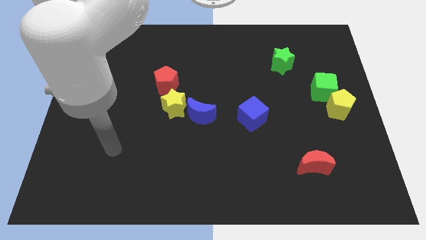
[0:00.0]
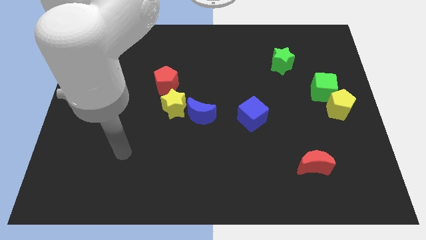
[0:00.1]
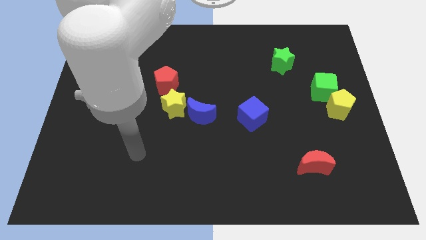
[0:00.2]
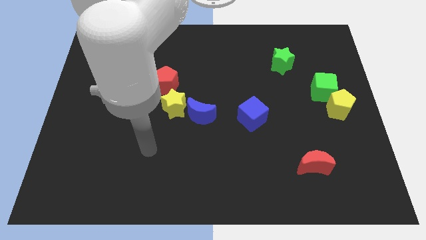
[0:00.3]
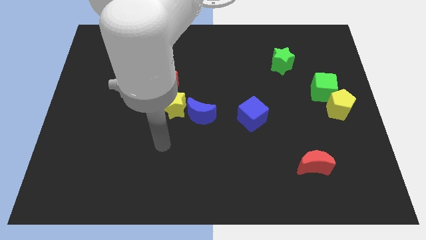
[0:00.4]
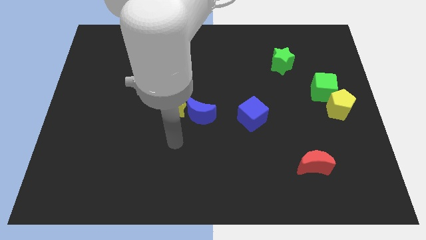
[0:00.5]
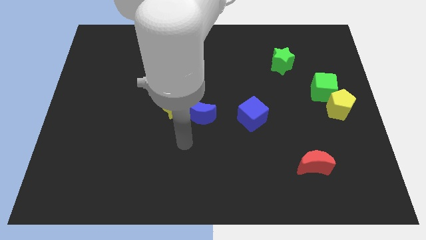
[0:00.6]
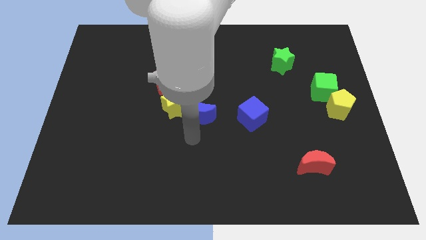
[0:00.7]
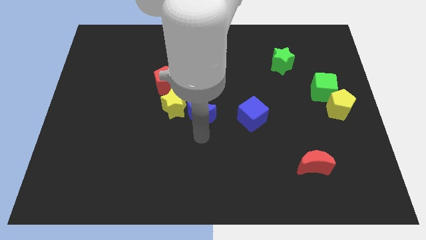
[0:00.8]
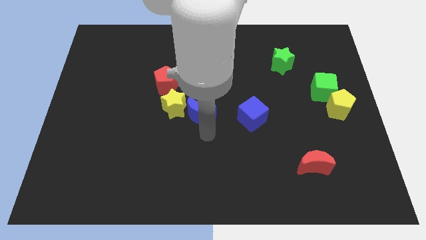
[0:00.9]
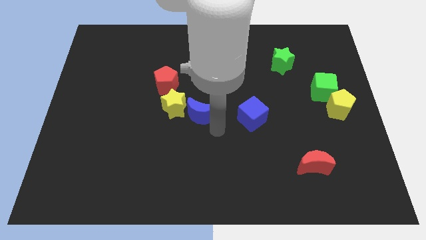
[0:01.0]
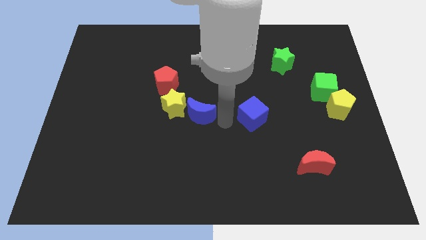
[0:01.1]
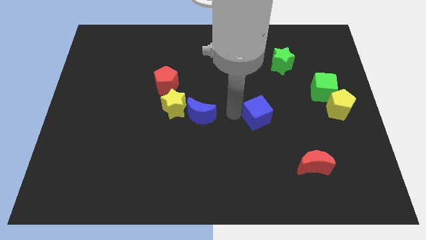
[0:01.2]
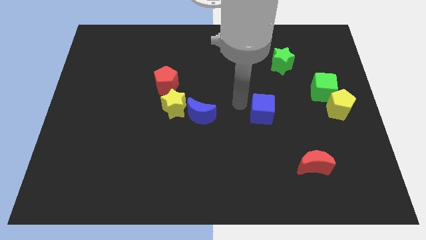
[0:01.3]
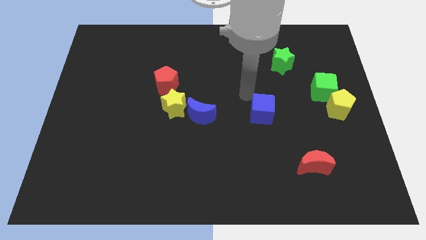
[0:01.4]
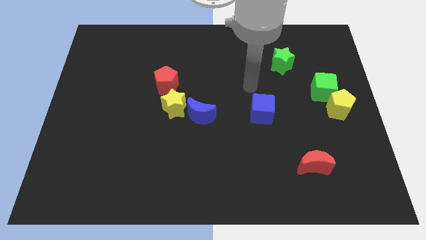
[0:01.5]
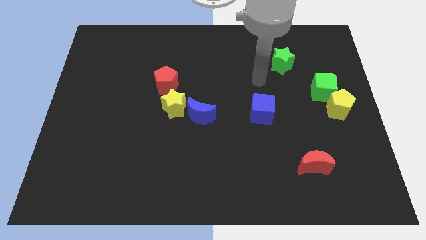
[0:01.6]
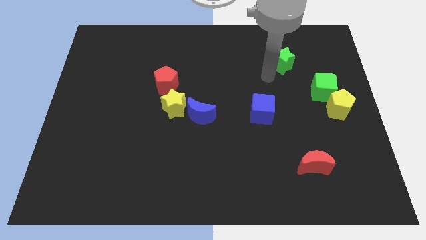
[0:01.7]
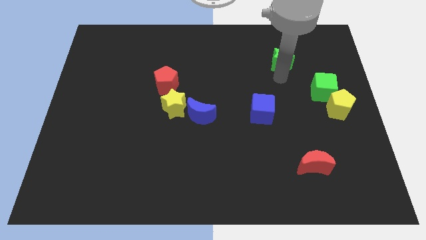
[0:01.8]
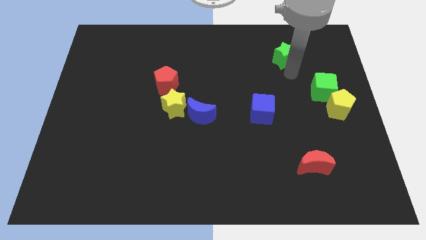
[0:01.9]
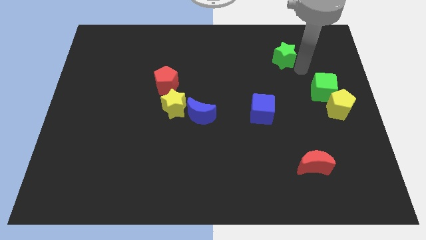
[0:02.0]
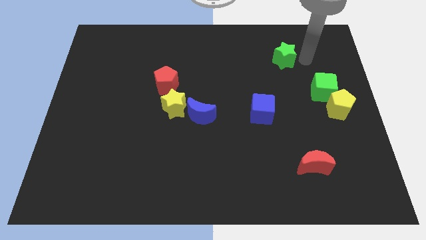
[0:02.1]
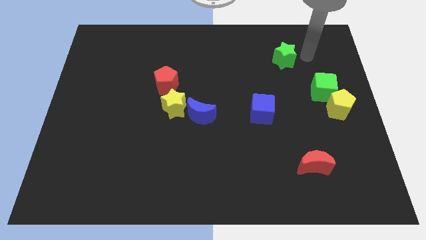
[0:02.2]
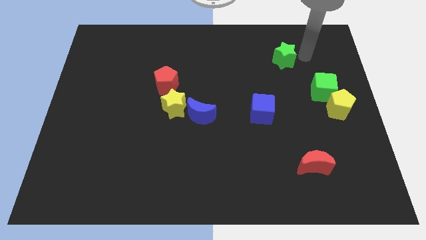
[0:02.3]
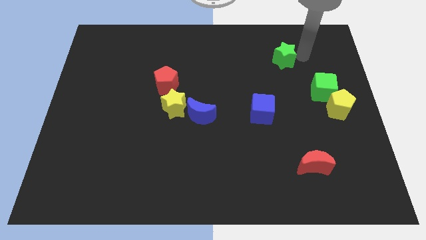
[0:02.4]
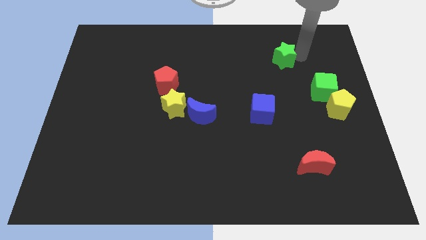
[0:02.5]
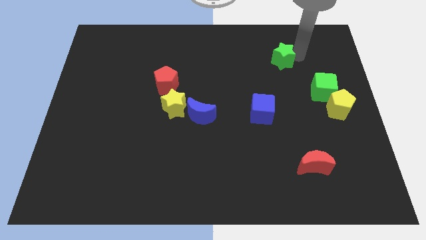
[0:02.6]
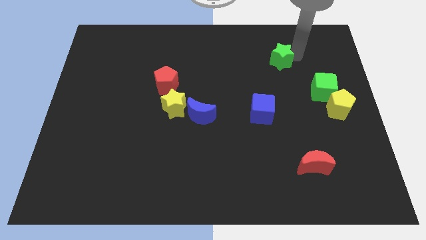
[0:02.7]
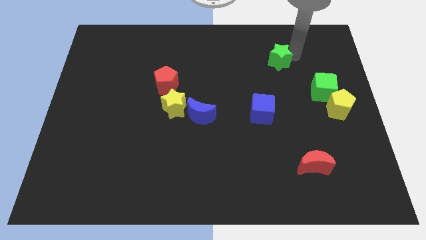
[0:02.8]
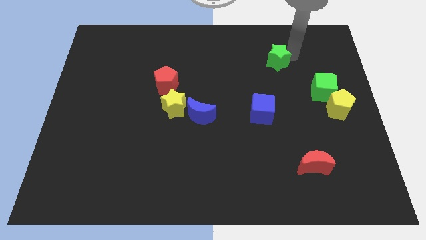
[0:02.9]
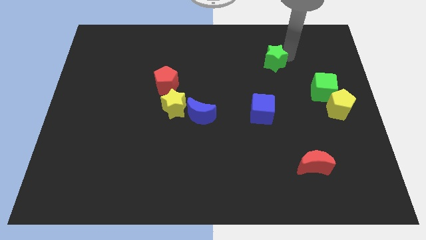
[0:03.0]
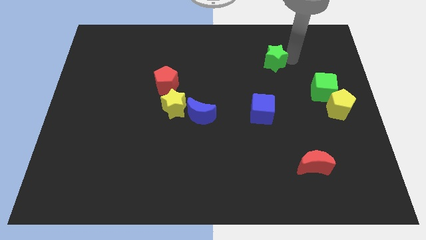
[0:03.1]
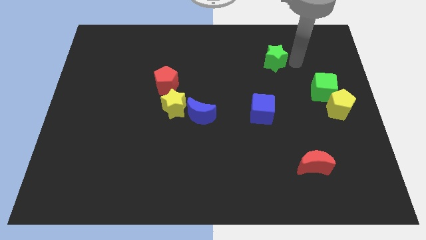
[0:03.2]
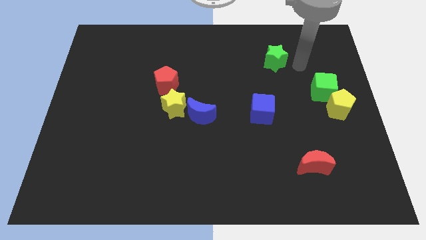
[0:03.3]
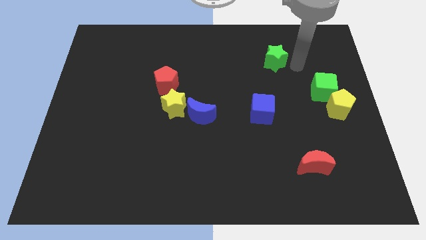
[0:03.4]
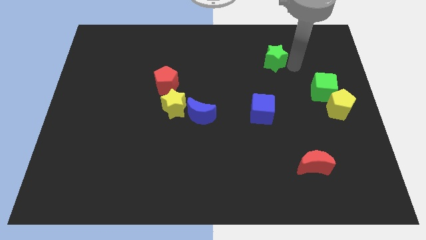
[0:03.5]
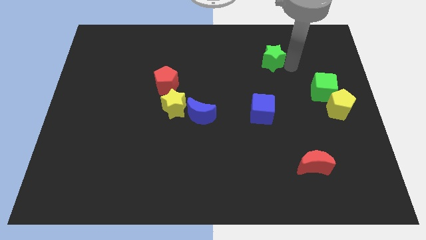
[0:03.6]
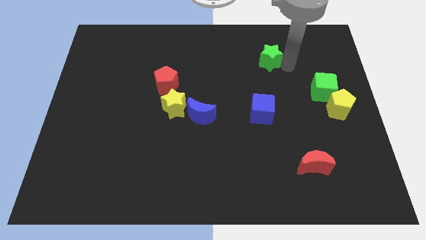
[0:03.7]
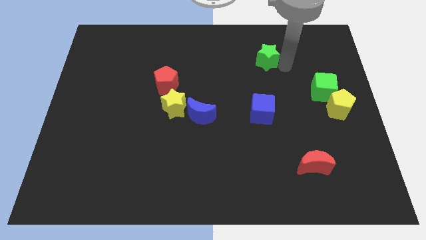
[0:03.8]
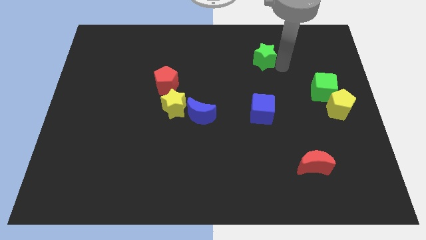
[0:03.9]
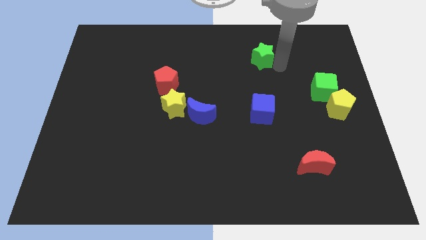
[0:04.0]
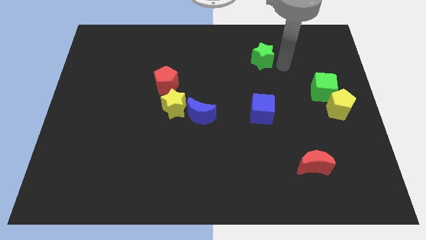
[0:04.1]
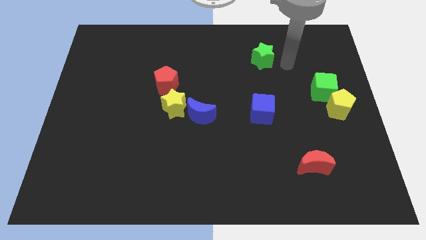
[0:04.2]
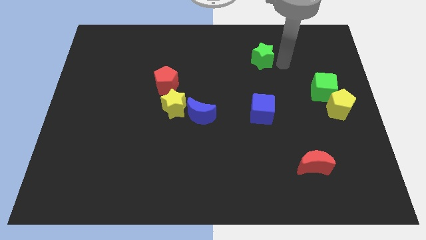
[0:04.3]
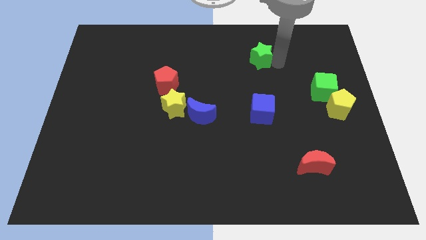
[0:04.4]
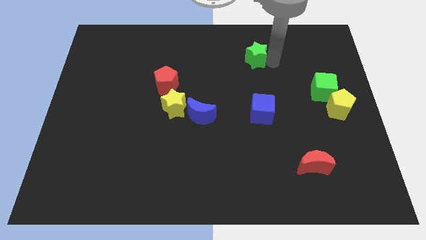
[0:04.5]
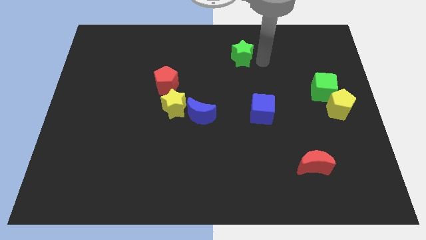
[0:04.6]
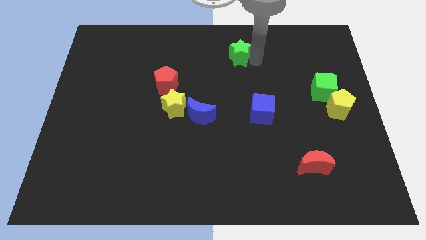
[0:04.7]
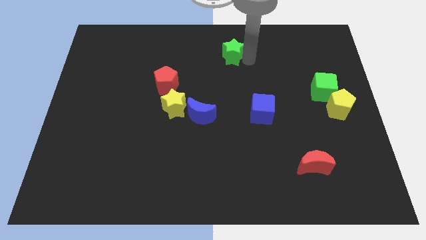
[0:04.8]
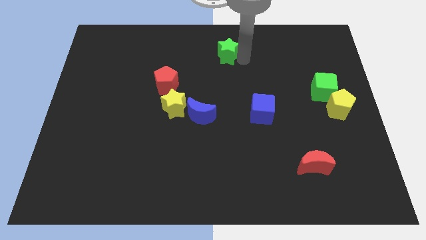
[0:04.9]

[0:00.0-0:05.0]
slide the green star to the towards your base
